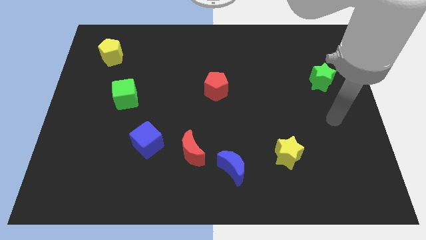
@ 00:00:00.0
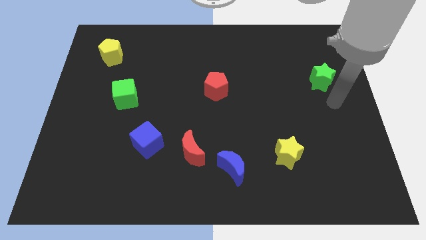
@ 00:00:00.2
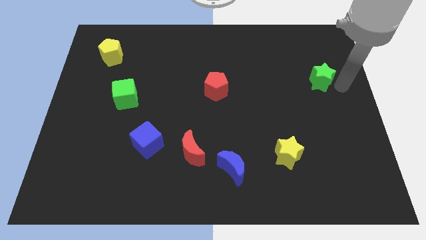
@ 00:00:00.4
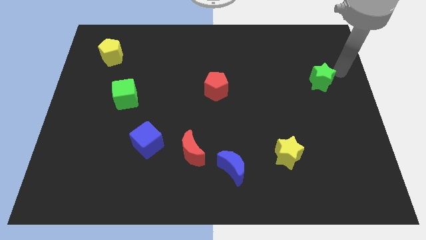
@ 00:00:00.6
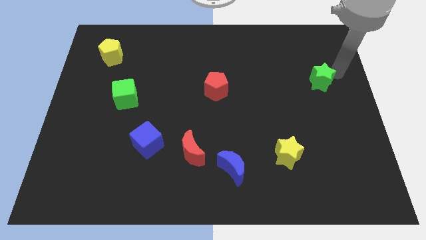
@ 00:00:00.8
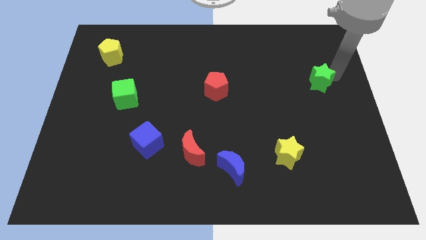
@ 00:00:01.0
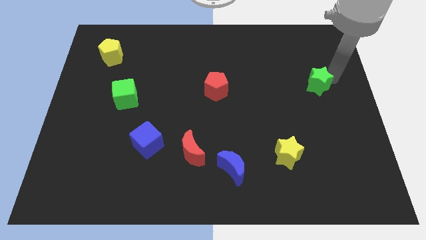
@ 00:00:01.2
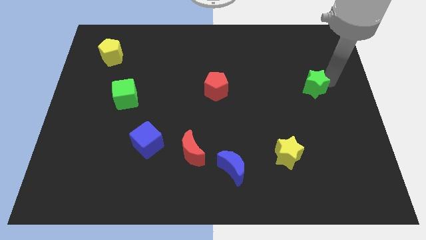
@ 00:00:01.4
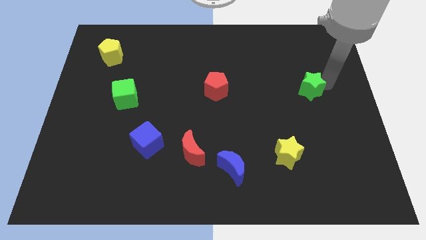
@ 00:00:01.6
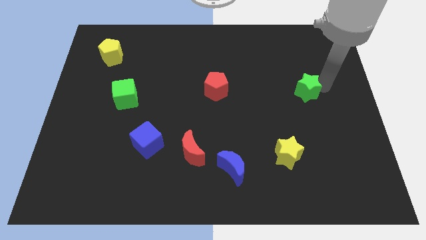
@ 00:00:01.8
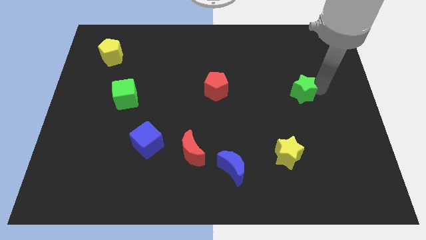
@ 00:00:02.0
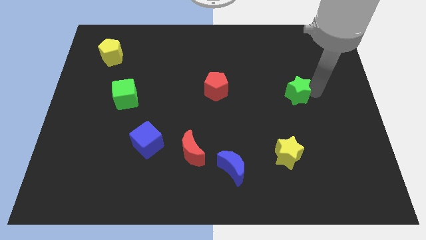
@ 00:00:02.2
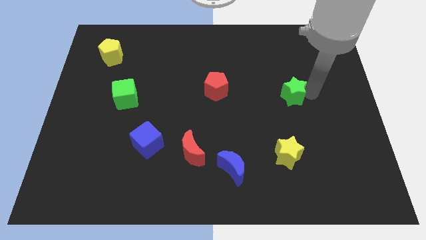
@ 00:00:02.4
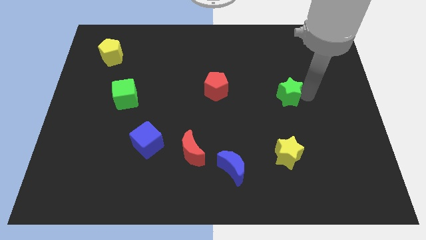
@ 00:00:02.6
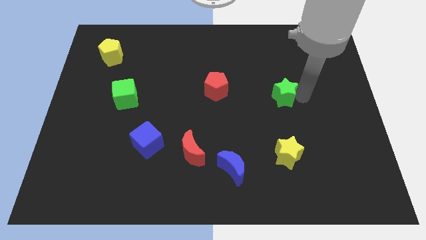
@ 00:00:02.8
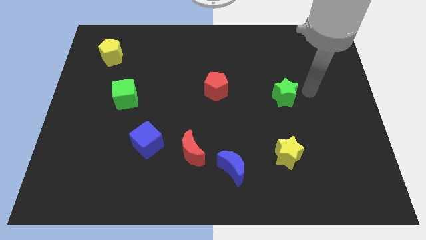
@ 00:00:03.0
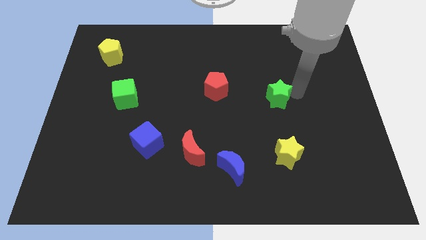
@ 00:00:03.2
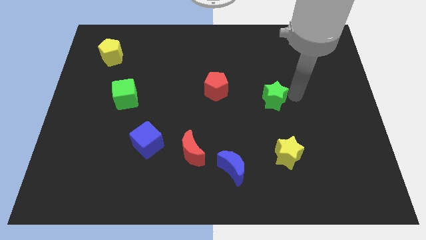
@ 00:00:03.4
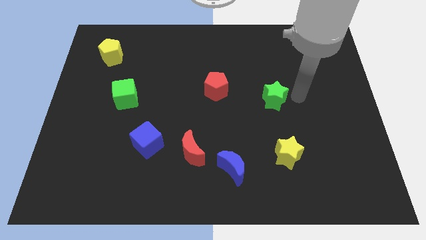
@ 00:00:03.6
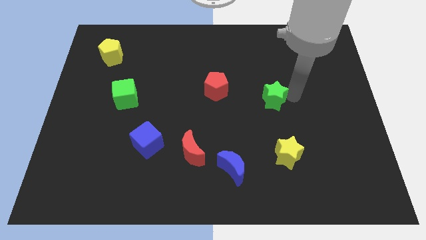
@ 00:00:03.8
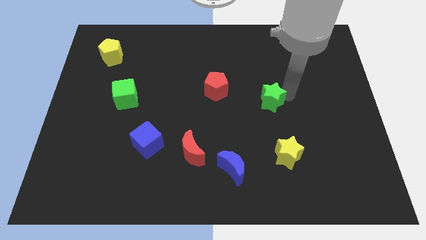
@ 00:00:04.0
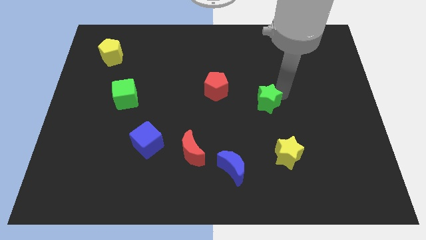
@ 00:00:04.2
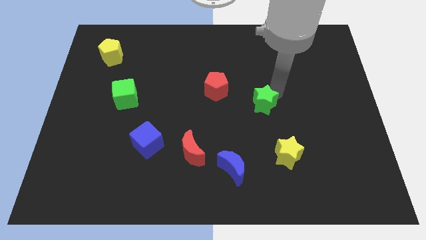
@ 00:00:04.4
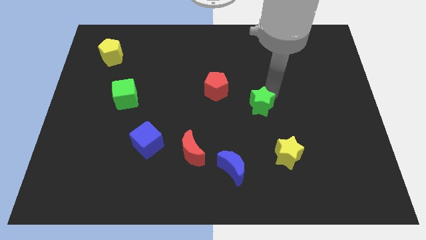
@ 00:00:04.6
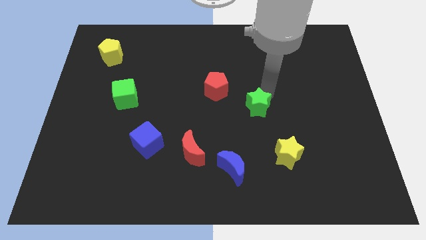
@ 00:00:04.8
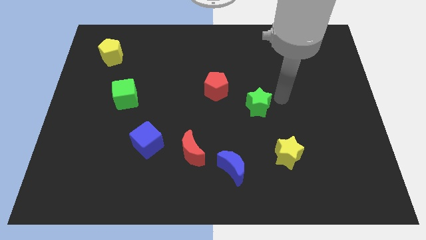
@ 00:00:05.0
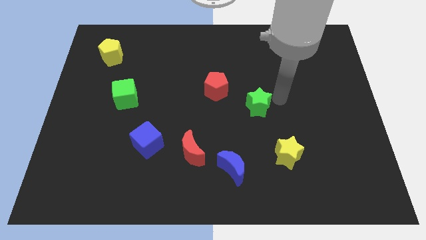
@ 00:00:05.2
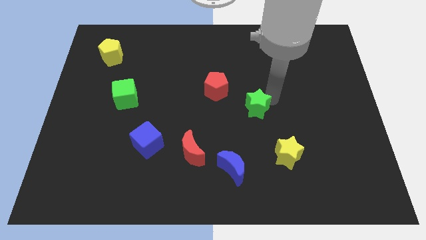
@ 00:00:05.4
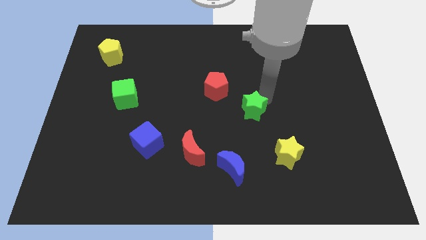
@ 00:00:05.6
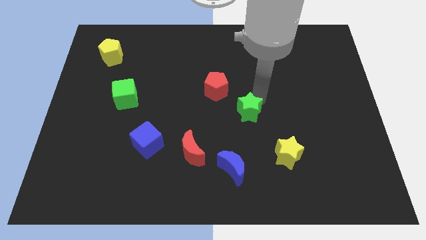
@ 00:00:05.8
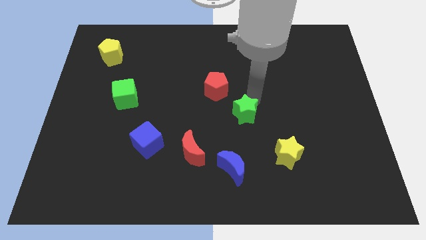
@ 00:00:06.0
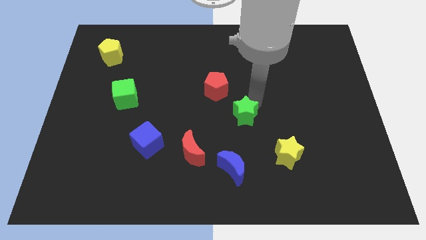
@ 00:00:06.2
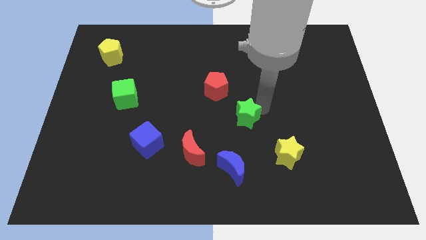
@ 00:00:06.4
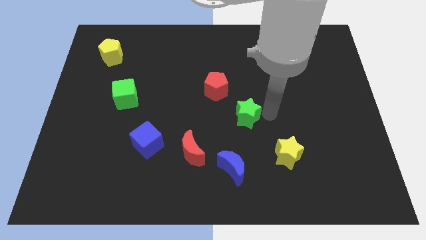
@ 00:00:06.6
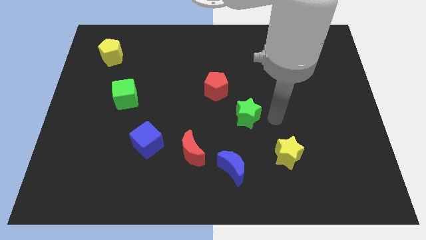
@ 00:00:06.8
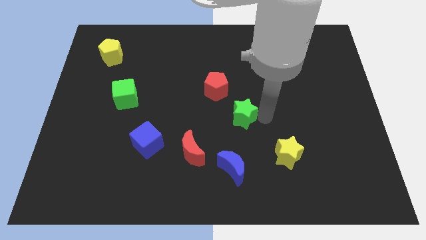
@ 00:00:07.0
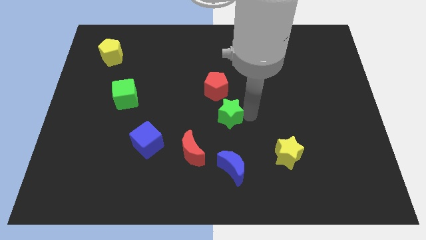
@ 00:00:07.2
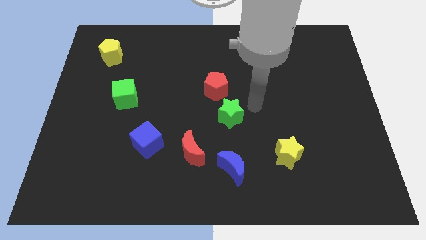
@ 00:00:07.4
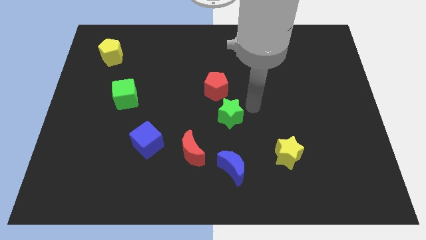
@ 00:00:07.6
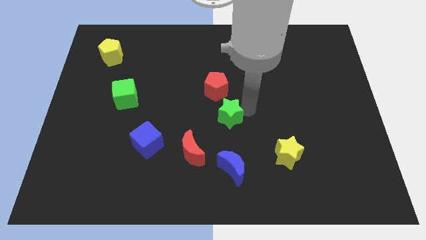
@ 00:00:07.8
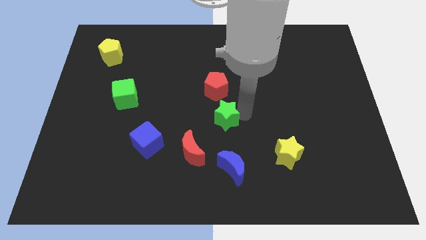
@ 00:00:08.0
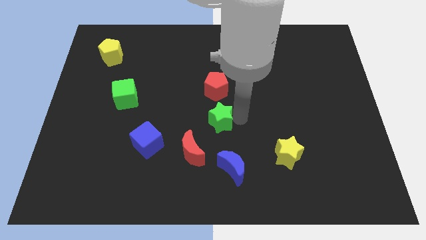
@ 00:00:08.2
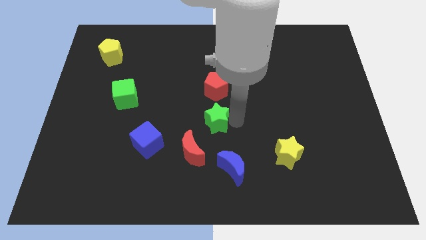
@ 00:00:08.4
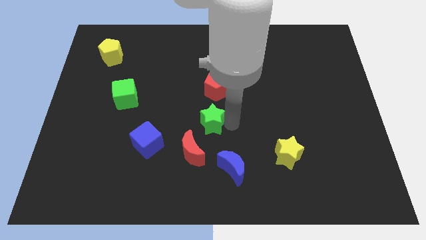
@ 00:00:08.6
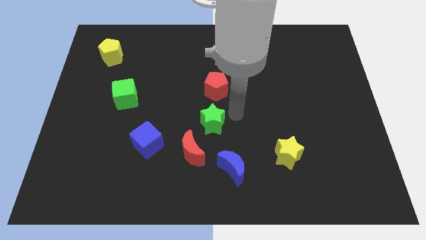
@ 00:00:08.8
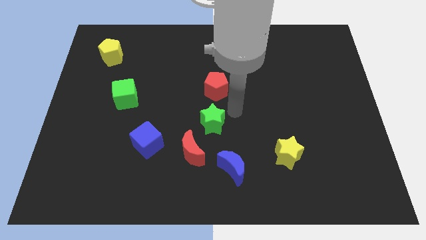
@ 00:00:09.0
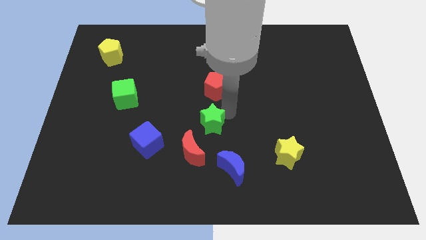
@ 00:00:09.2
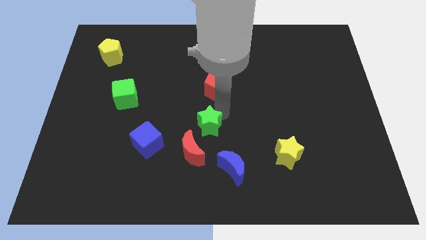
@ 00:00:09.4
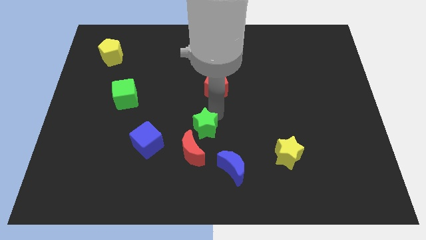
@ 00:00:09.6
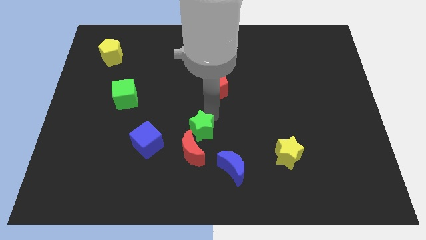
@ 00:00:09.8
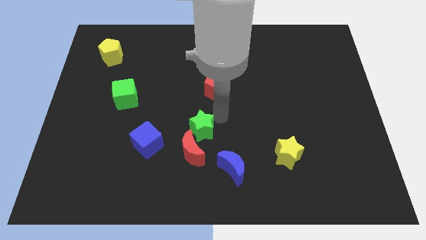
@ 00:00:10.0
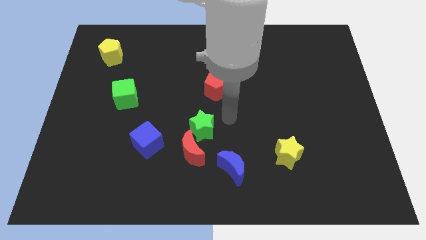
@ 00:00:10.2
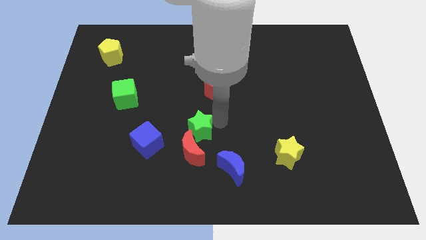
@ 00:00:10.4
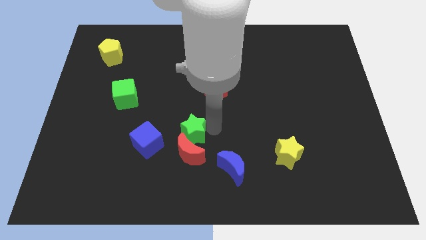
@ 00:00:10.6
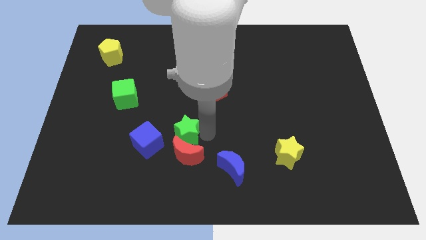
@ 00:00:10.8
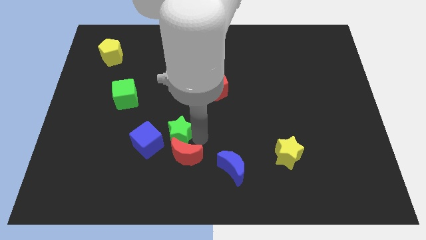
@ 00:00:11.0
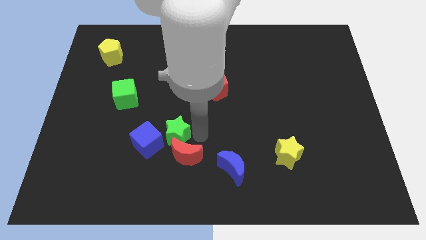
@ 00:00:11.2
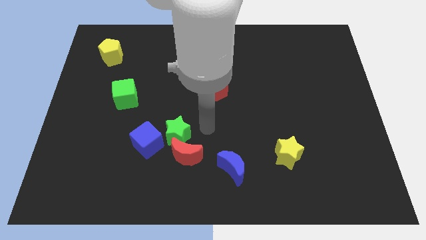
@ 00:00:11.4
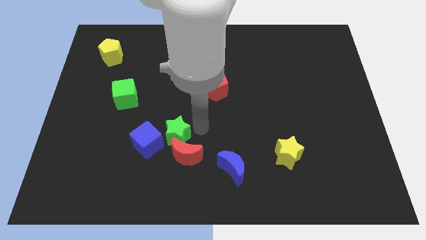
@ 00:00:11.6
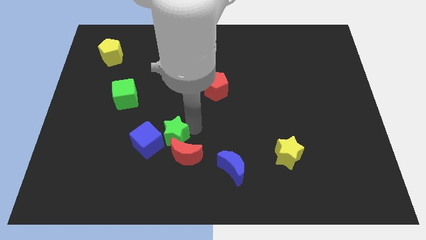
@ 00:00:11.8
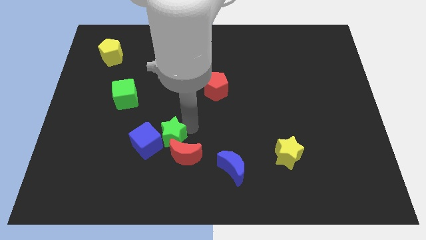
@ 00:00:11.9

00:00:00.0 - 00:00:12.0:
move the green star close to the blue cube

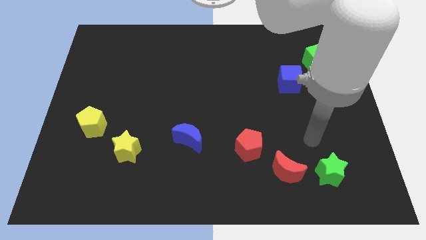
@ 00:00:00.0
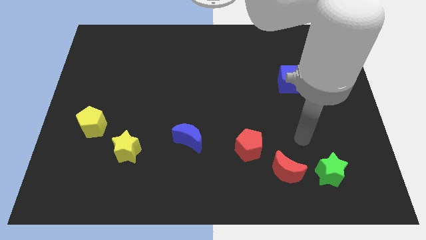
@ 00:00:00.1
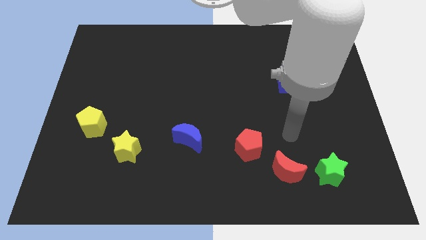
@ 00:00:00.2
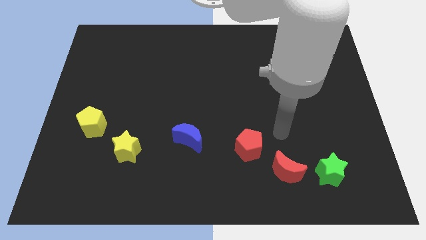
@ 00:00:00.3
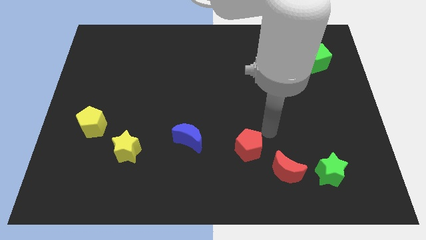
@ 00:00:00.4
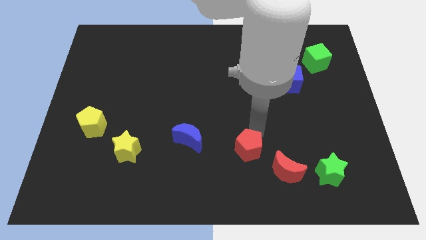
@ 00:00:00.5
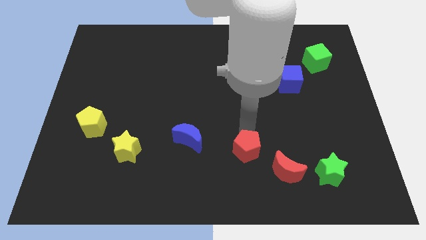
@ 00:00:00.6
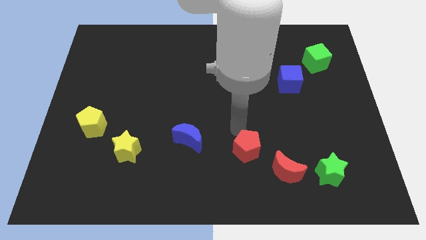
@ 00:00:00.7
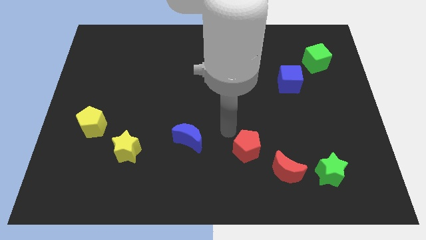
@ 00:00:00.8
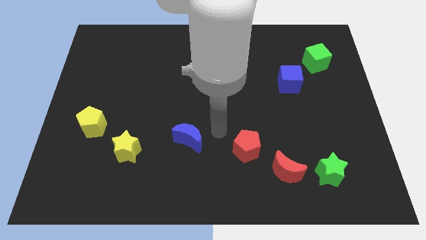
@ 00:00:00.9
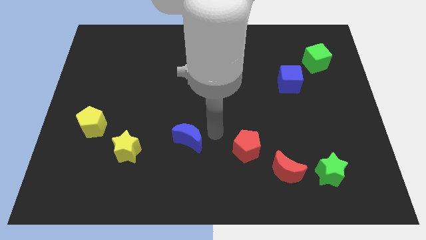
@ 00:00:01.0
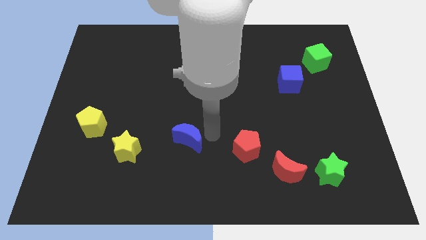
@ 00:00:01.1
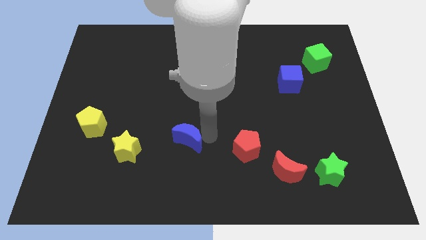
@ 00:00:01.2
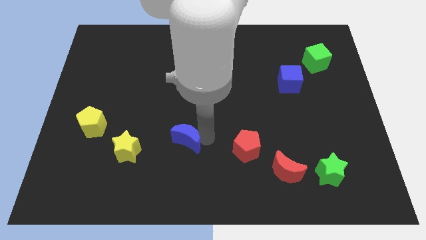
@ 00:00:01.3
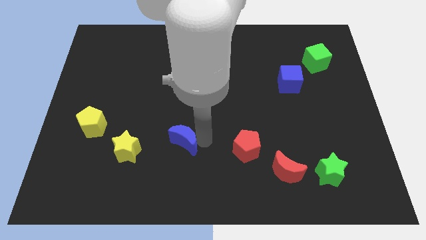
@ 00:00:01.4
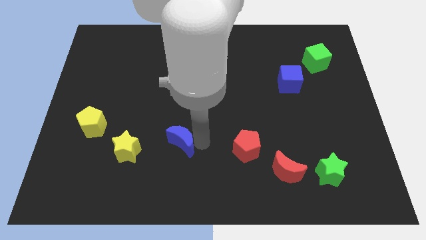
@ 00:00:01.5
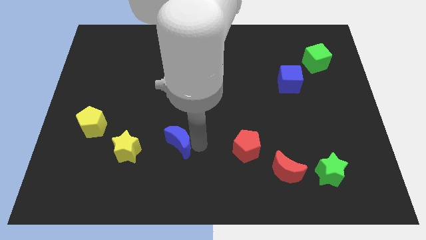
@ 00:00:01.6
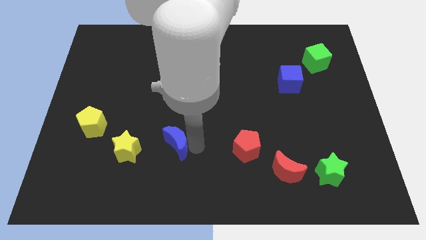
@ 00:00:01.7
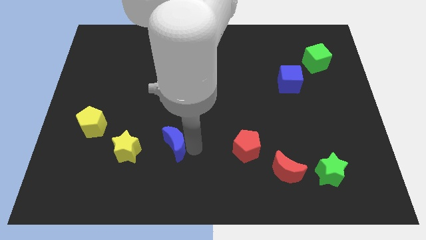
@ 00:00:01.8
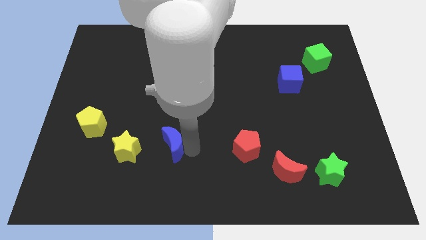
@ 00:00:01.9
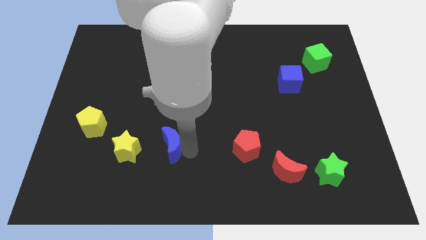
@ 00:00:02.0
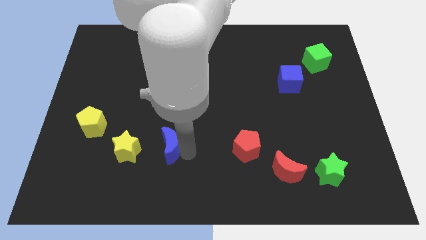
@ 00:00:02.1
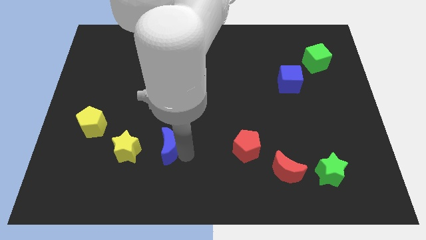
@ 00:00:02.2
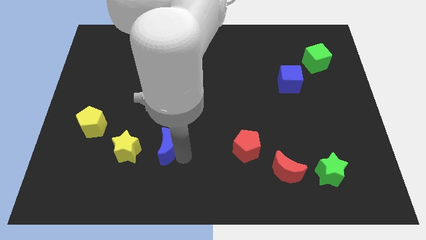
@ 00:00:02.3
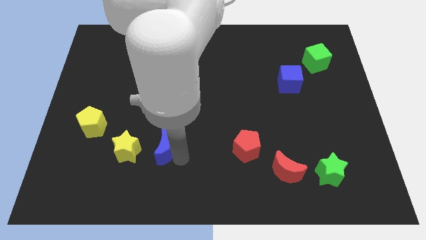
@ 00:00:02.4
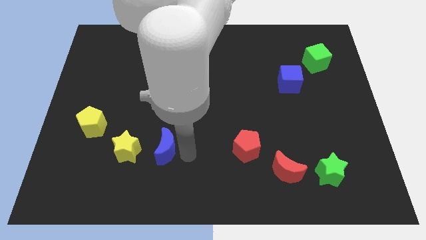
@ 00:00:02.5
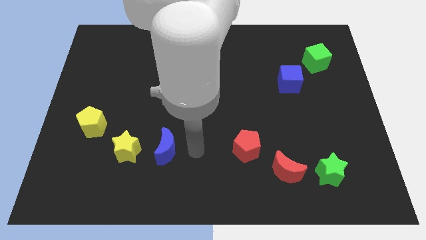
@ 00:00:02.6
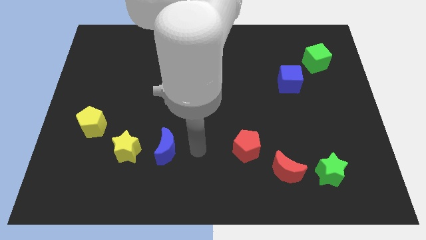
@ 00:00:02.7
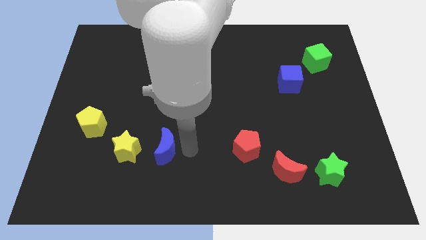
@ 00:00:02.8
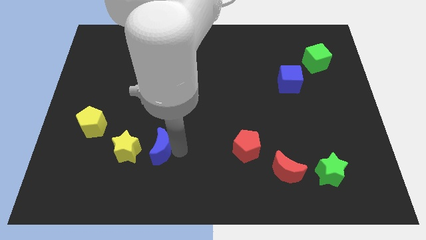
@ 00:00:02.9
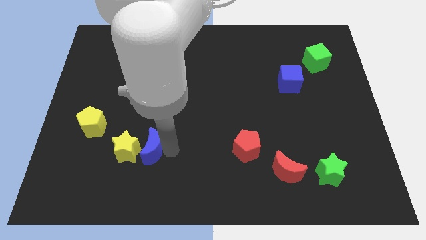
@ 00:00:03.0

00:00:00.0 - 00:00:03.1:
move the blue moon next to the yellow star
